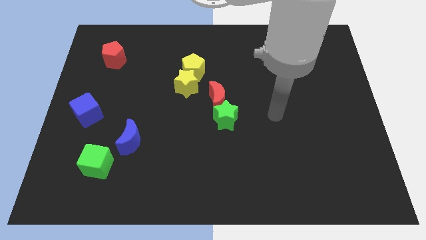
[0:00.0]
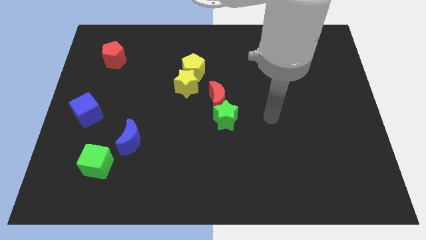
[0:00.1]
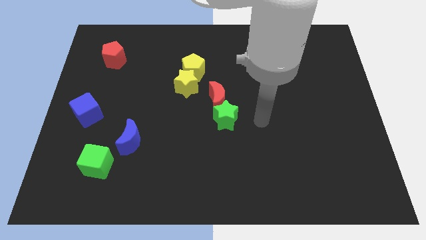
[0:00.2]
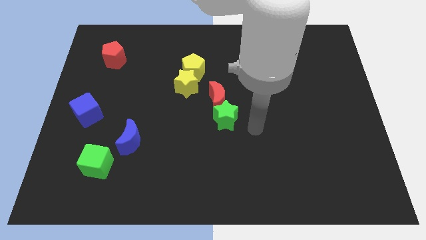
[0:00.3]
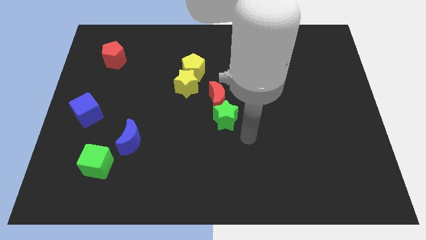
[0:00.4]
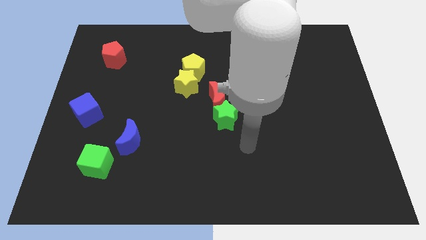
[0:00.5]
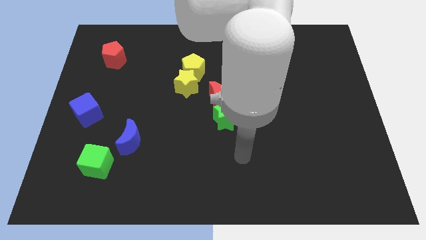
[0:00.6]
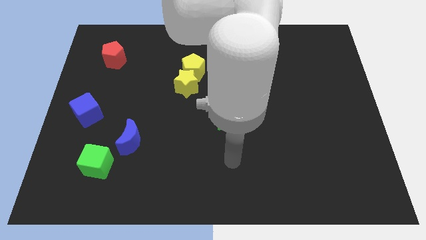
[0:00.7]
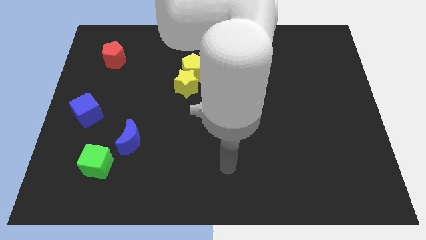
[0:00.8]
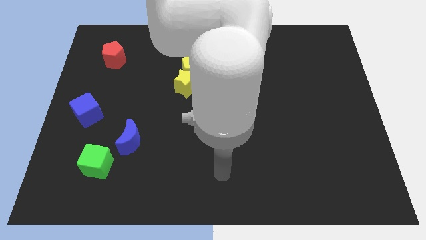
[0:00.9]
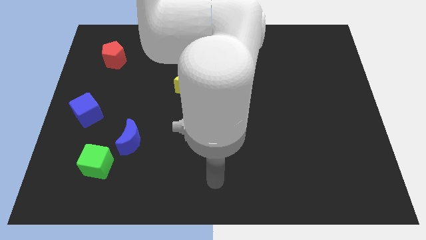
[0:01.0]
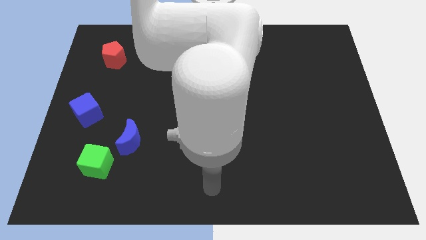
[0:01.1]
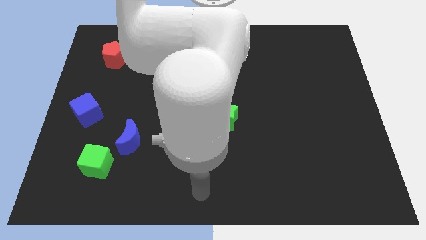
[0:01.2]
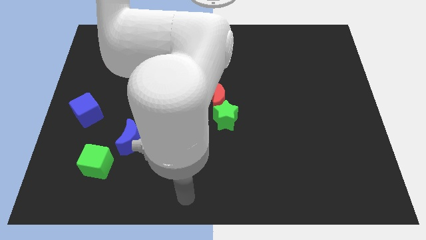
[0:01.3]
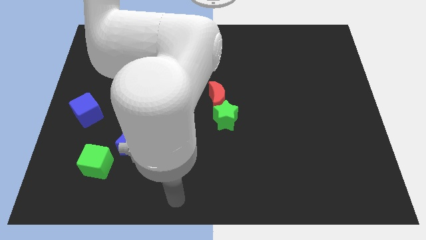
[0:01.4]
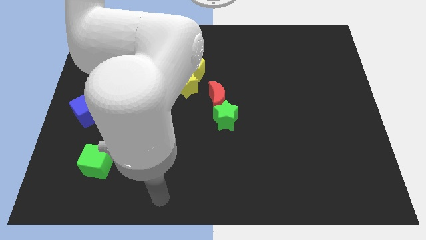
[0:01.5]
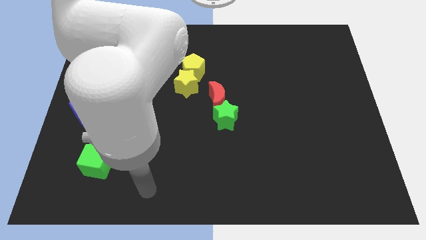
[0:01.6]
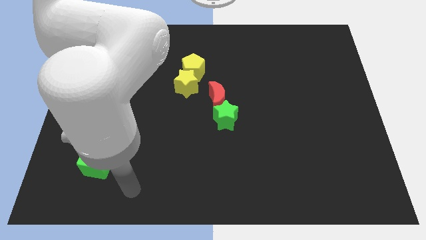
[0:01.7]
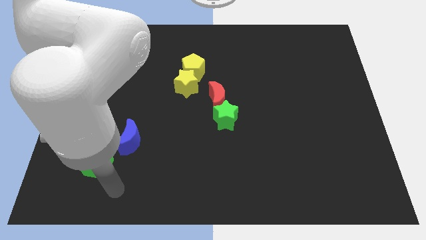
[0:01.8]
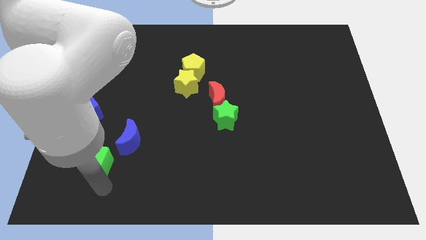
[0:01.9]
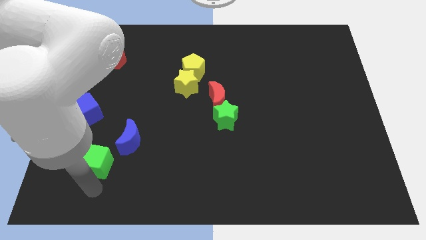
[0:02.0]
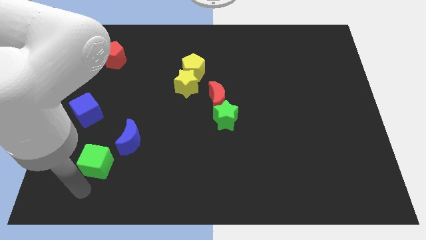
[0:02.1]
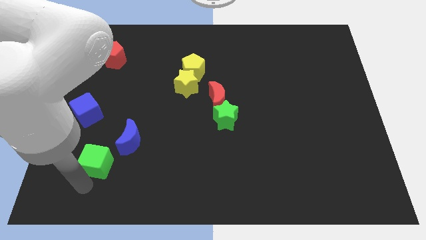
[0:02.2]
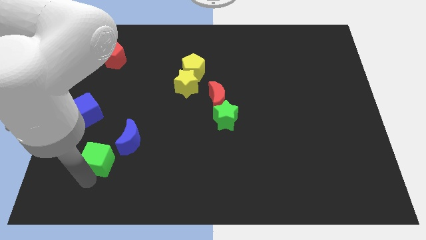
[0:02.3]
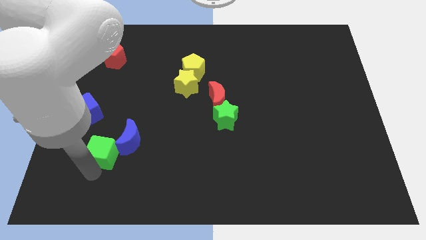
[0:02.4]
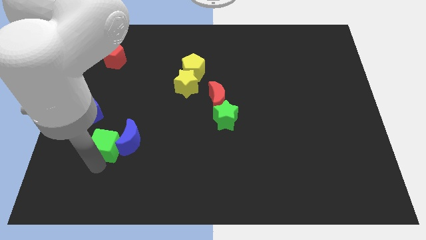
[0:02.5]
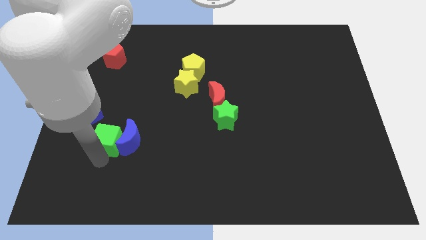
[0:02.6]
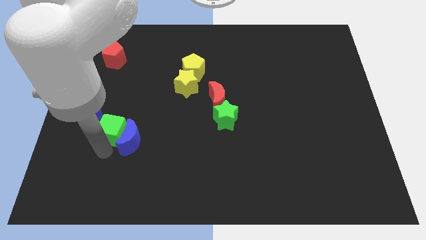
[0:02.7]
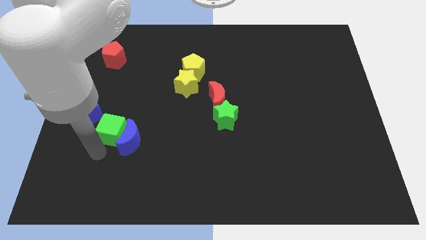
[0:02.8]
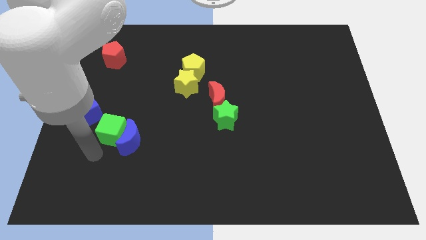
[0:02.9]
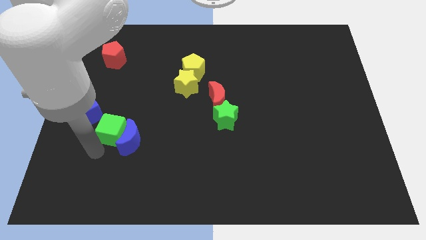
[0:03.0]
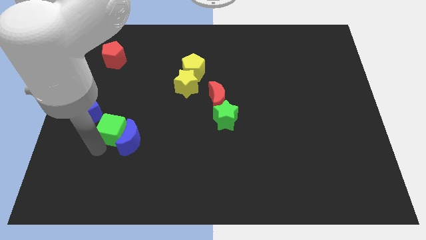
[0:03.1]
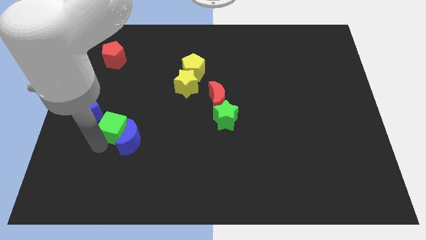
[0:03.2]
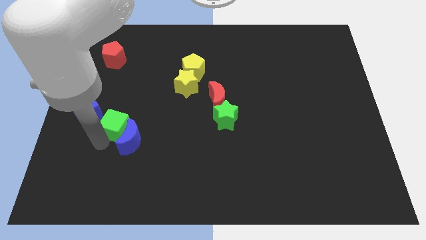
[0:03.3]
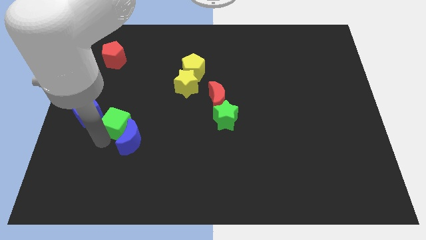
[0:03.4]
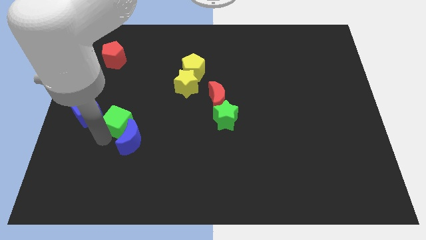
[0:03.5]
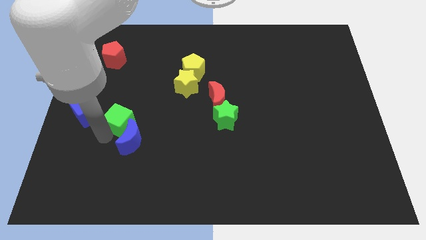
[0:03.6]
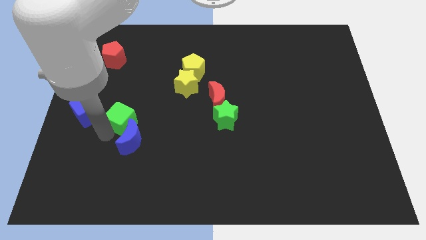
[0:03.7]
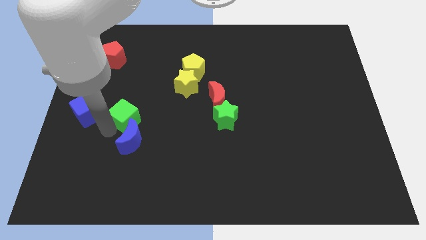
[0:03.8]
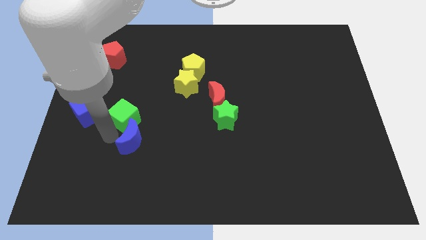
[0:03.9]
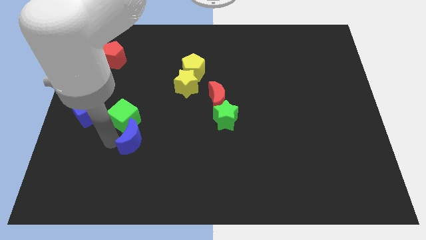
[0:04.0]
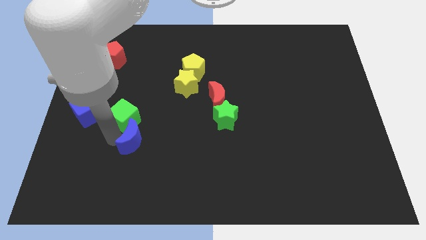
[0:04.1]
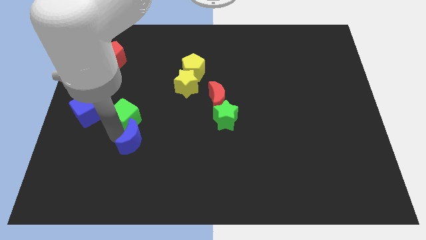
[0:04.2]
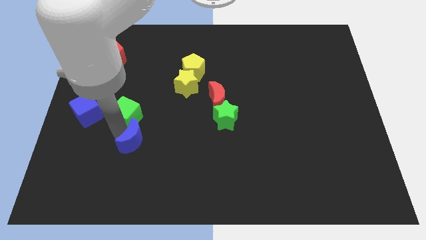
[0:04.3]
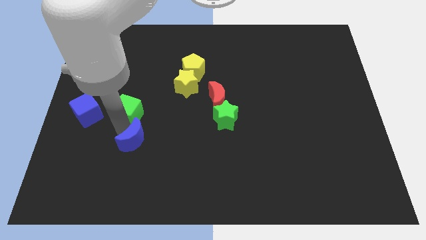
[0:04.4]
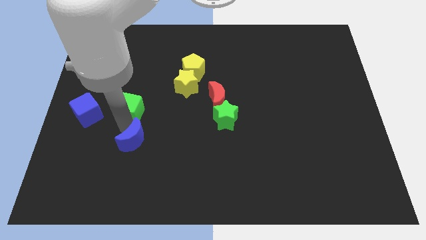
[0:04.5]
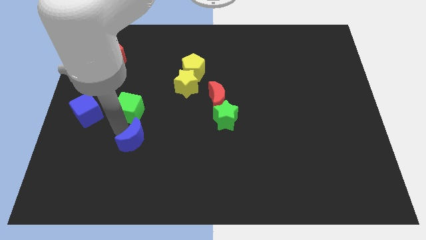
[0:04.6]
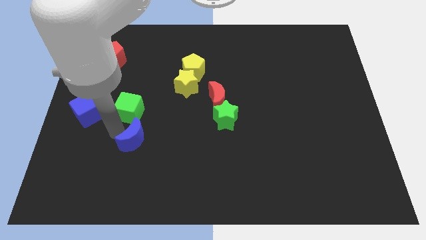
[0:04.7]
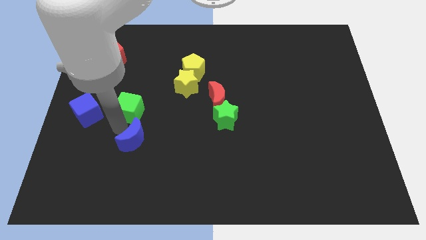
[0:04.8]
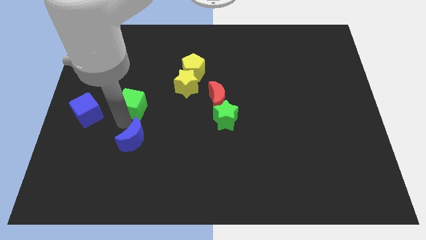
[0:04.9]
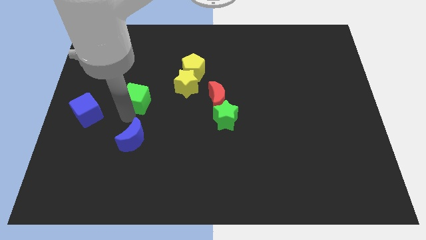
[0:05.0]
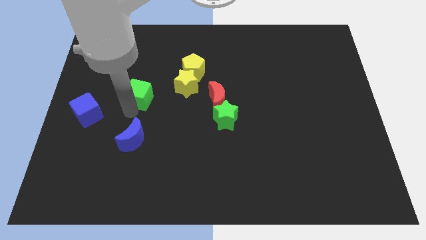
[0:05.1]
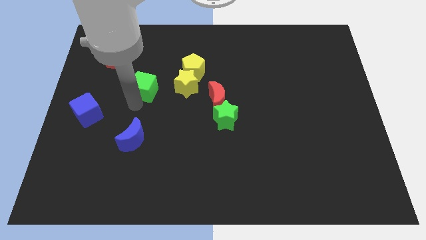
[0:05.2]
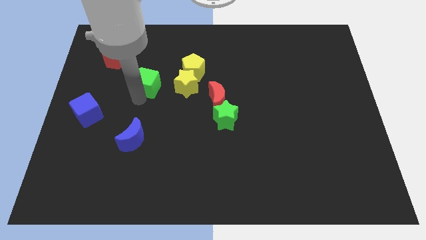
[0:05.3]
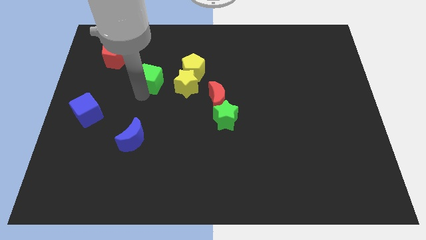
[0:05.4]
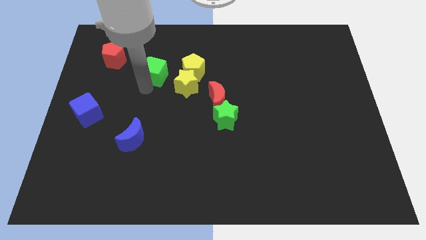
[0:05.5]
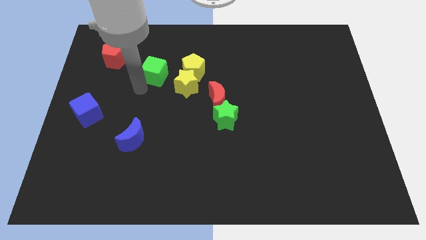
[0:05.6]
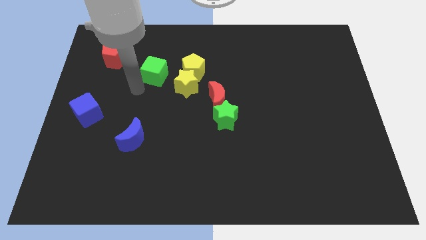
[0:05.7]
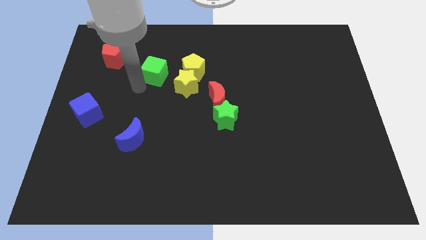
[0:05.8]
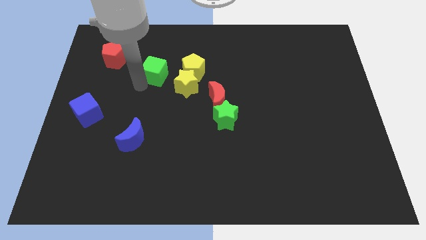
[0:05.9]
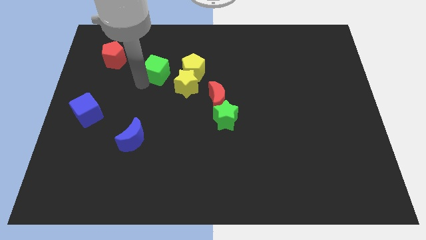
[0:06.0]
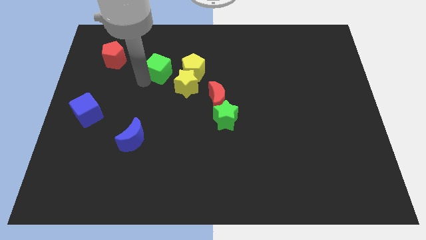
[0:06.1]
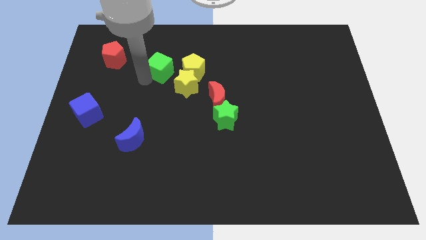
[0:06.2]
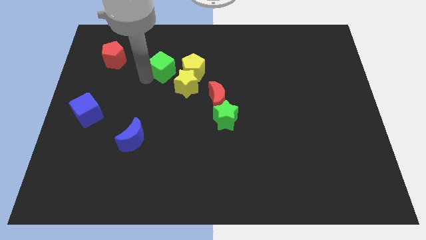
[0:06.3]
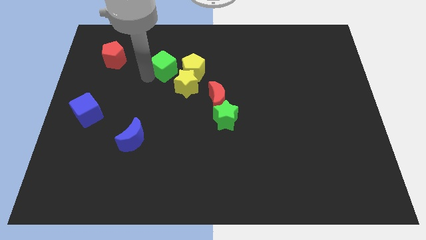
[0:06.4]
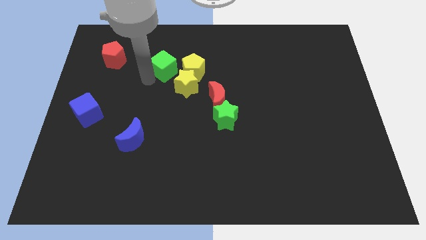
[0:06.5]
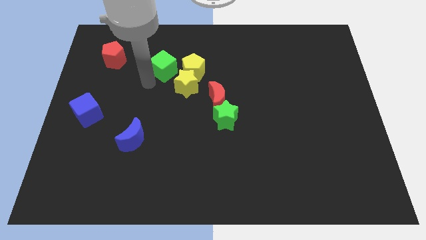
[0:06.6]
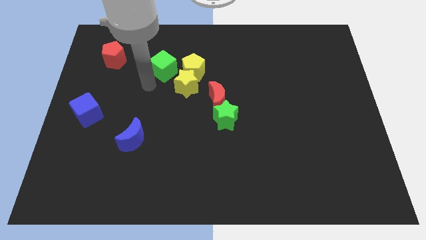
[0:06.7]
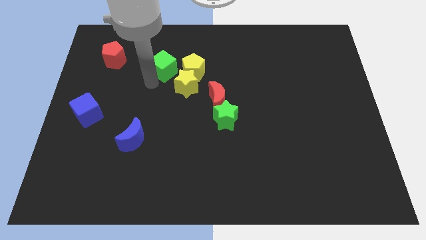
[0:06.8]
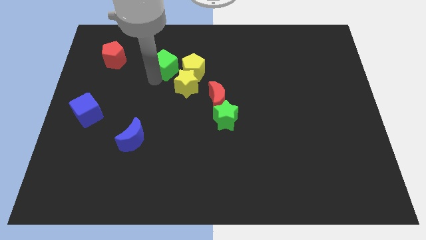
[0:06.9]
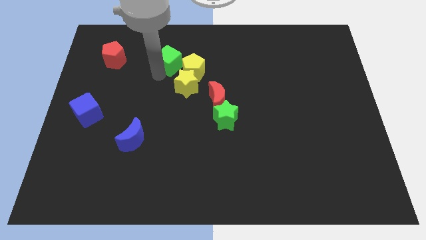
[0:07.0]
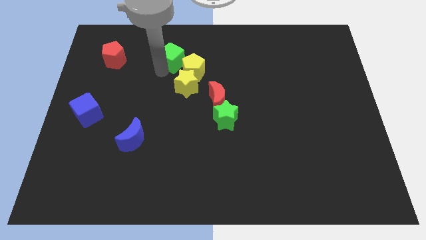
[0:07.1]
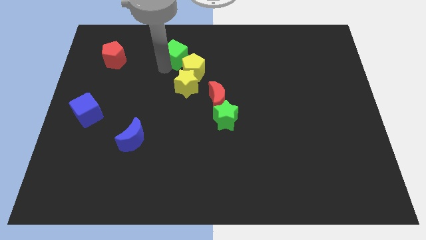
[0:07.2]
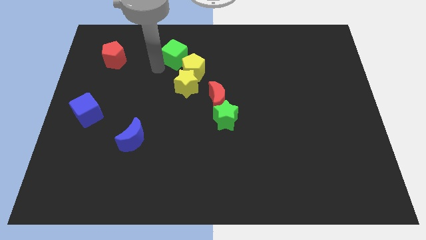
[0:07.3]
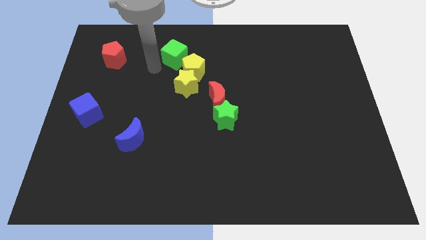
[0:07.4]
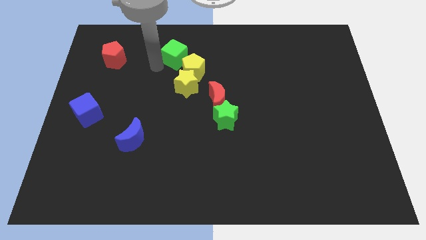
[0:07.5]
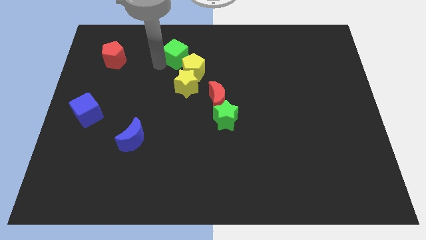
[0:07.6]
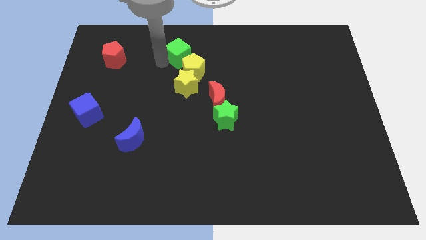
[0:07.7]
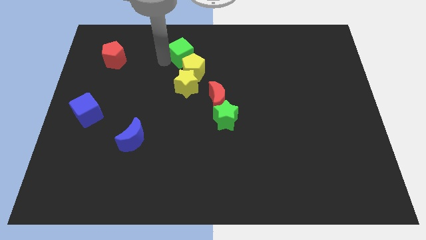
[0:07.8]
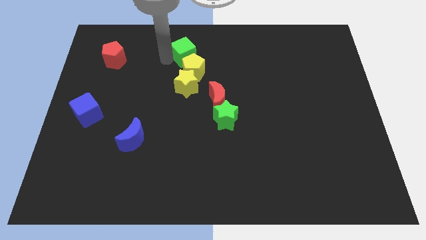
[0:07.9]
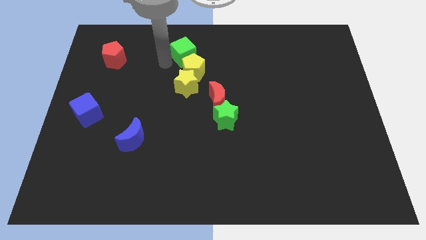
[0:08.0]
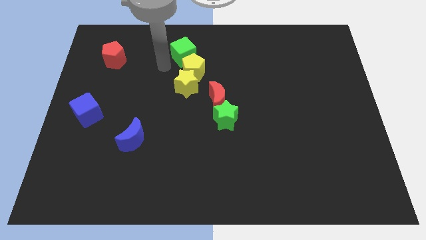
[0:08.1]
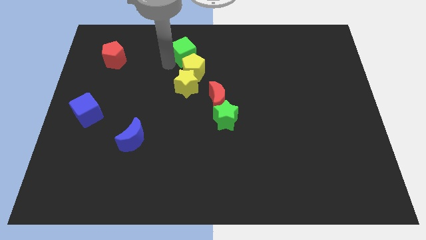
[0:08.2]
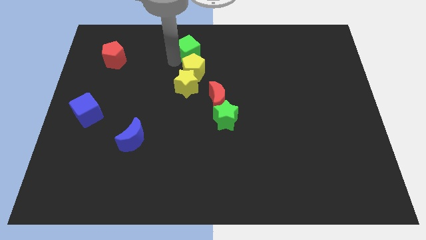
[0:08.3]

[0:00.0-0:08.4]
slide the green cube to the top
